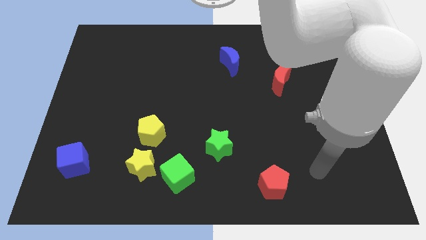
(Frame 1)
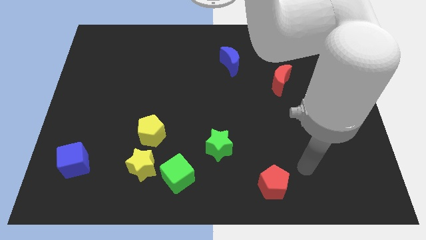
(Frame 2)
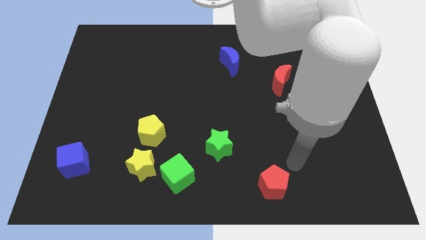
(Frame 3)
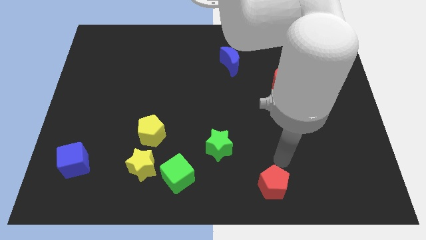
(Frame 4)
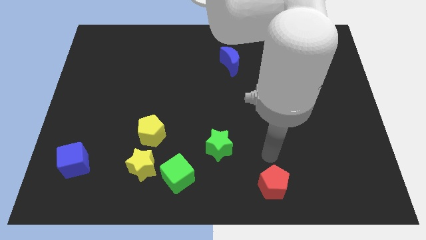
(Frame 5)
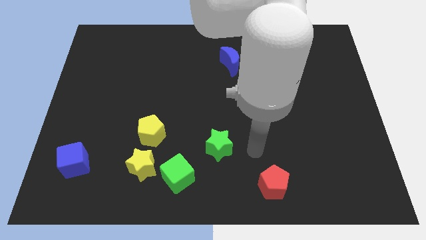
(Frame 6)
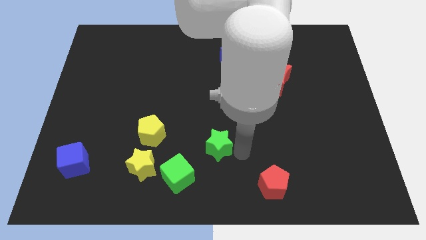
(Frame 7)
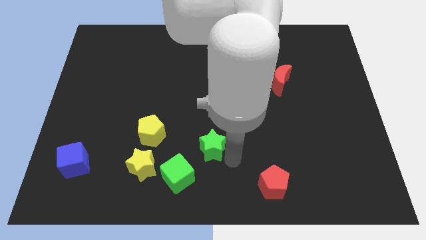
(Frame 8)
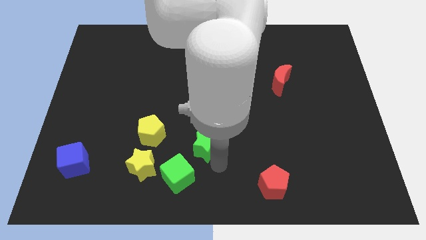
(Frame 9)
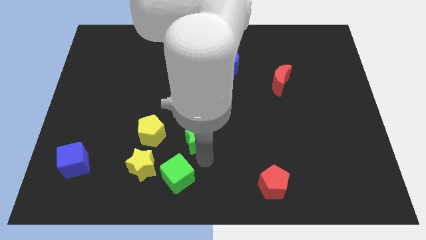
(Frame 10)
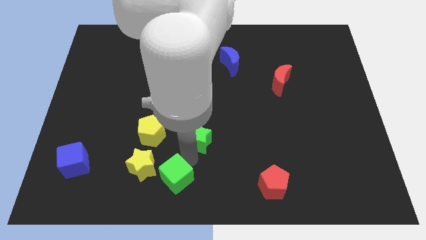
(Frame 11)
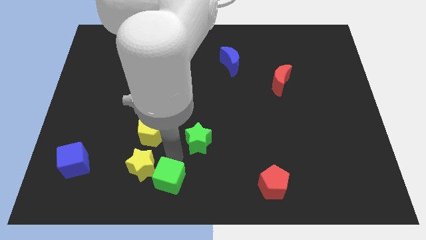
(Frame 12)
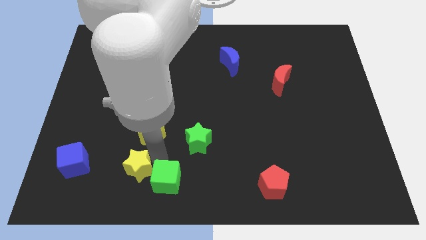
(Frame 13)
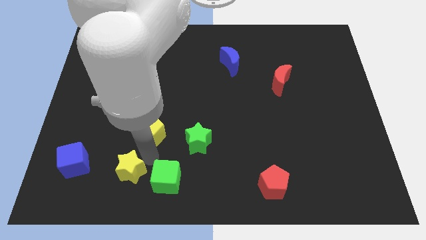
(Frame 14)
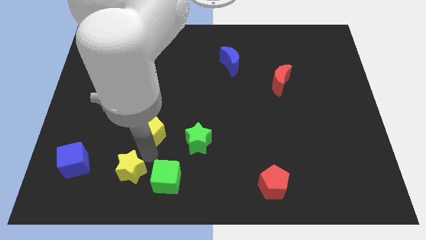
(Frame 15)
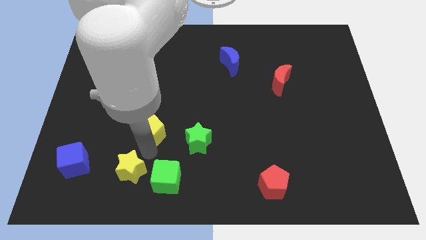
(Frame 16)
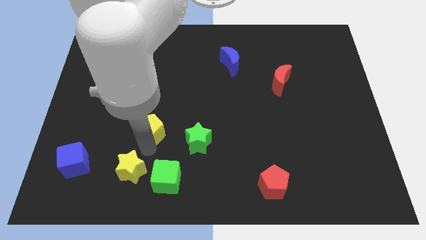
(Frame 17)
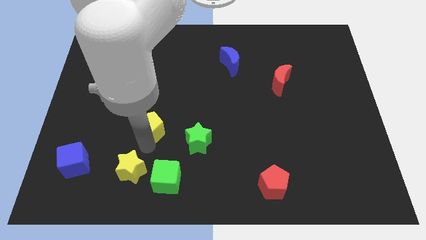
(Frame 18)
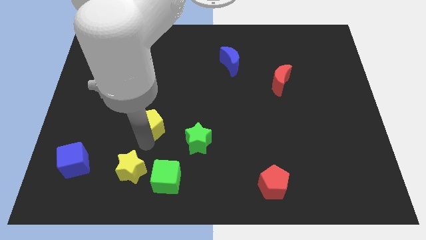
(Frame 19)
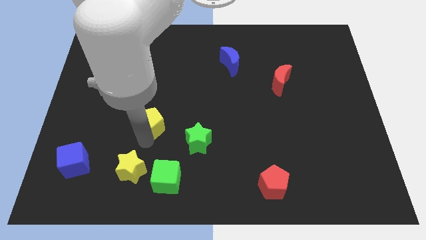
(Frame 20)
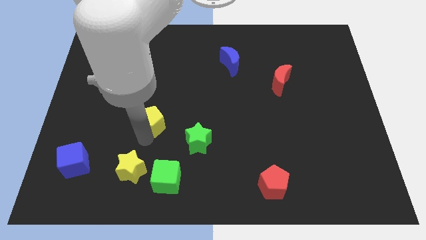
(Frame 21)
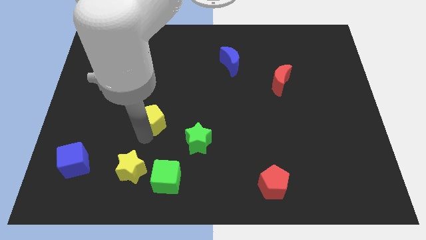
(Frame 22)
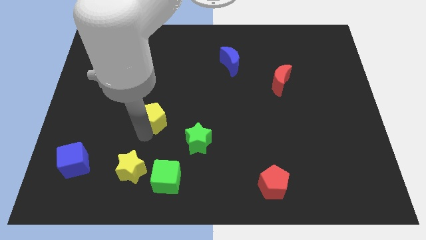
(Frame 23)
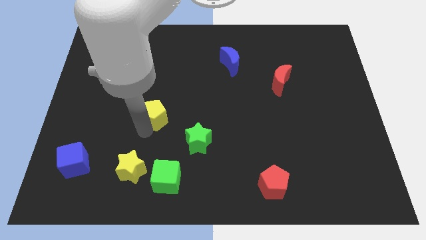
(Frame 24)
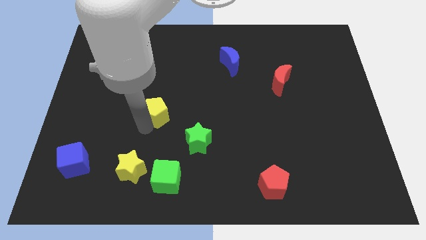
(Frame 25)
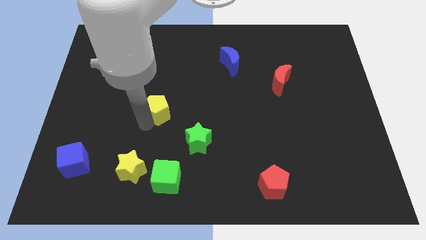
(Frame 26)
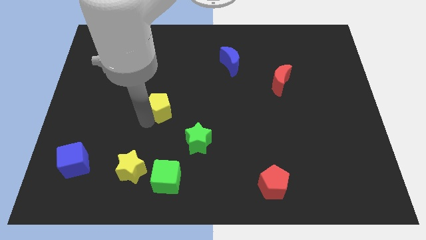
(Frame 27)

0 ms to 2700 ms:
push the yellow pentagon up a little bit

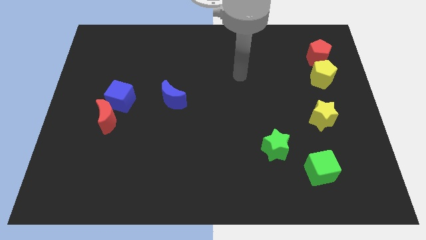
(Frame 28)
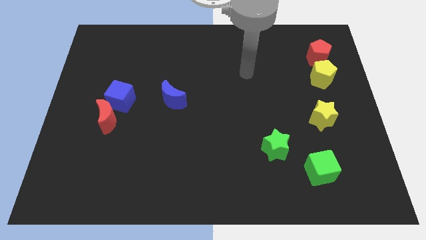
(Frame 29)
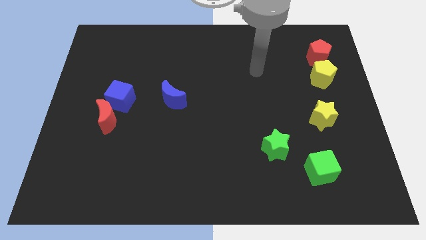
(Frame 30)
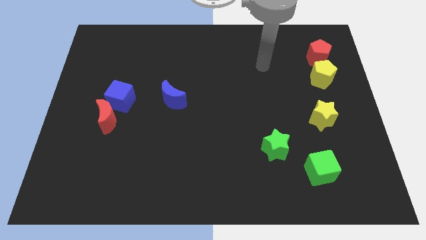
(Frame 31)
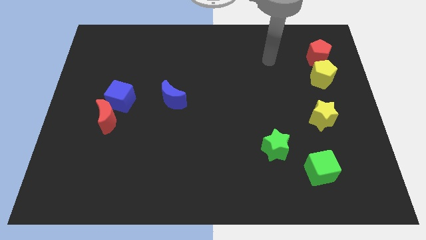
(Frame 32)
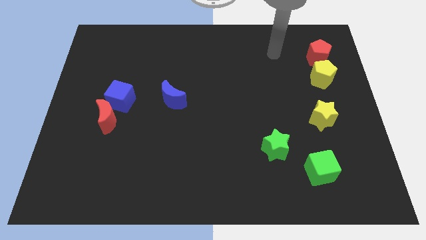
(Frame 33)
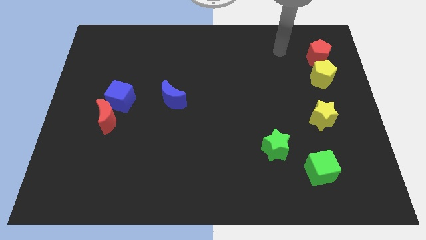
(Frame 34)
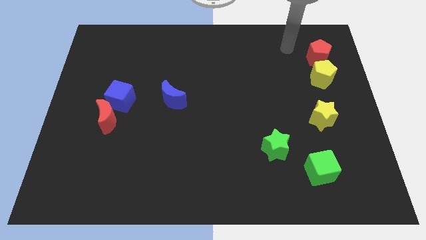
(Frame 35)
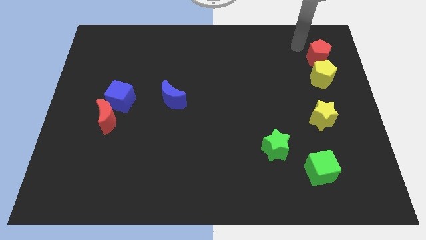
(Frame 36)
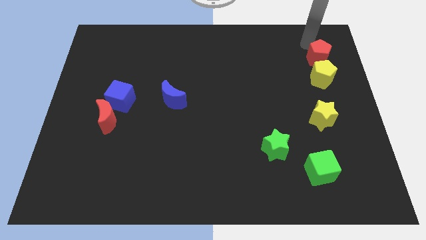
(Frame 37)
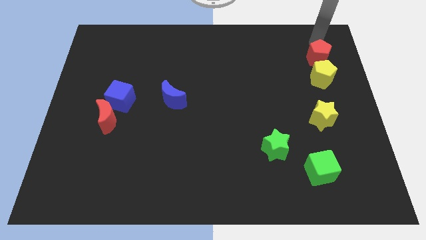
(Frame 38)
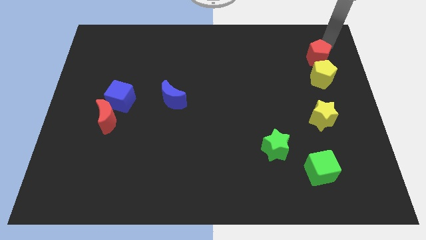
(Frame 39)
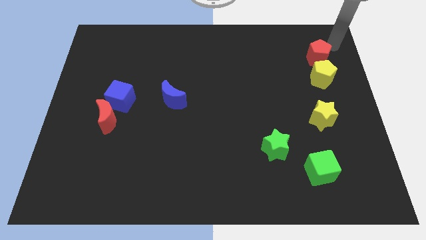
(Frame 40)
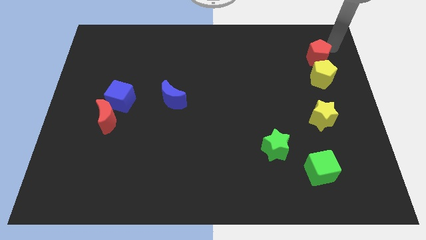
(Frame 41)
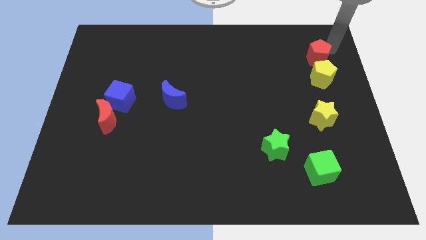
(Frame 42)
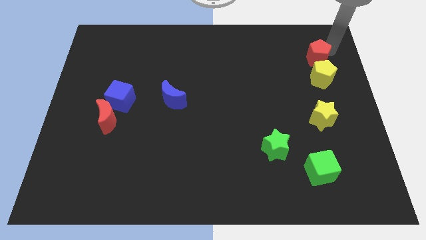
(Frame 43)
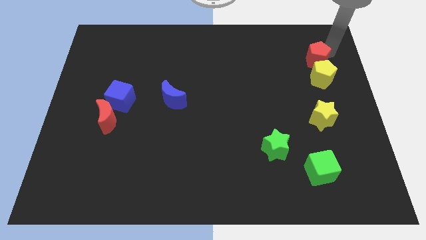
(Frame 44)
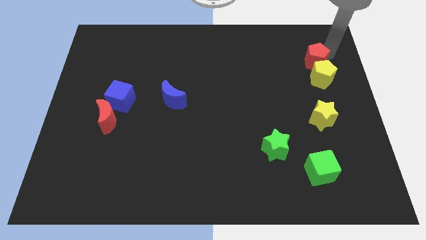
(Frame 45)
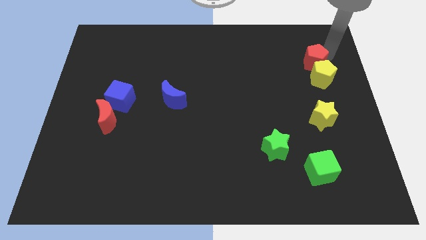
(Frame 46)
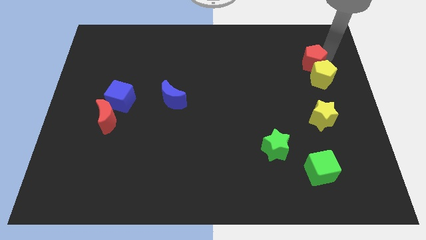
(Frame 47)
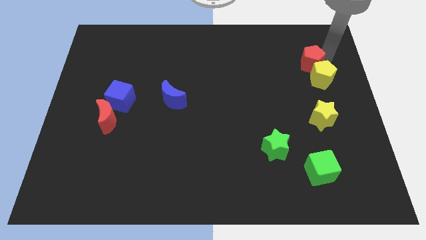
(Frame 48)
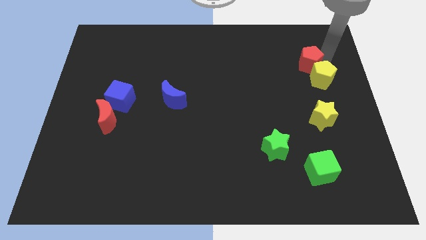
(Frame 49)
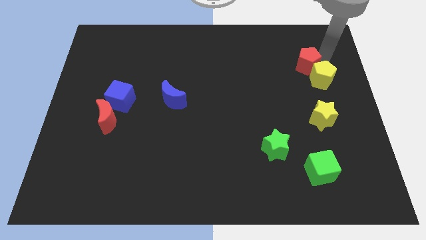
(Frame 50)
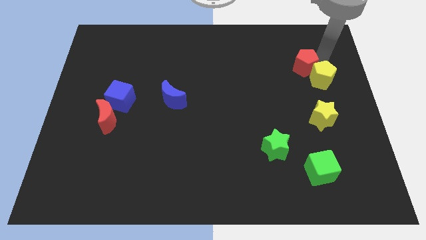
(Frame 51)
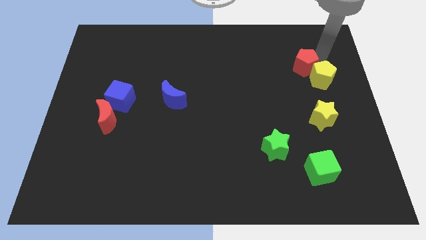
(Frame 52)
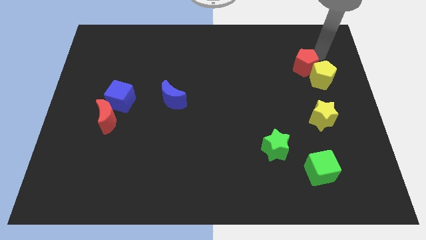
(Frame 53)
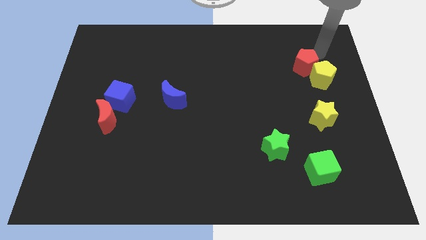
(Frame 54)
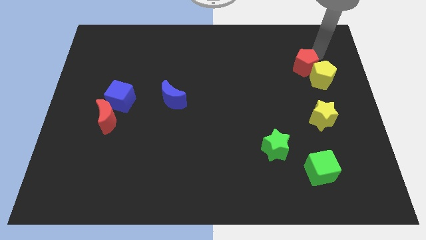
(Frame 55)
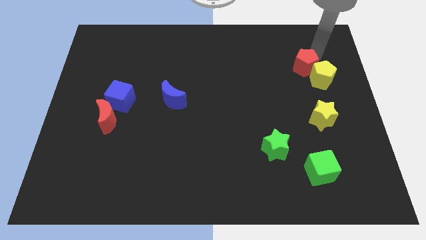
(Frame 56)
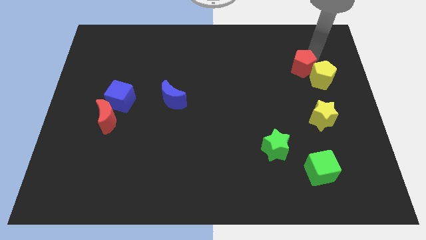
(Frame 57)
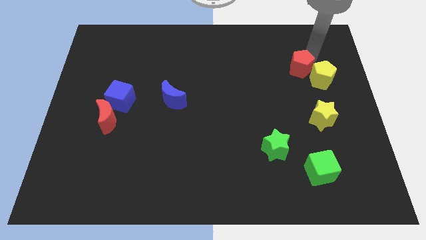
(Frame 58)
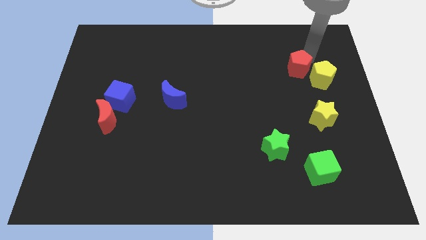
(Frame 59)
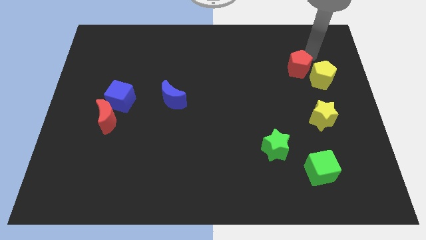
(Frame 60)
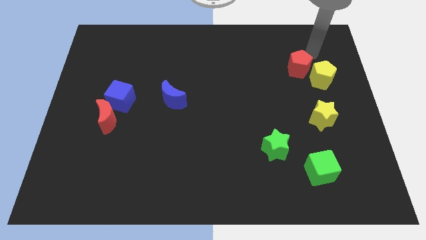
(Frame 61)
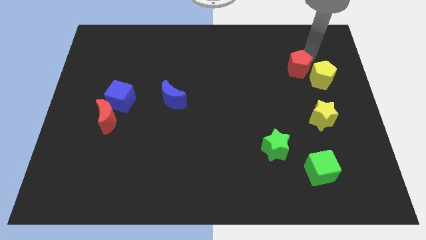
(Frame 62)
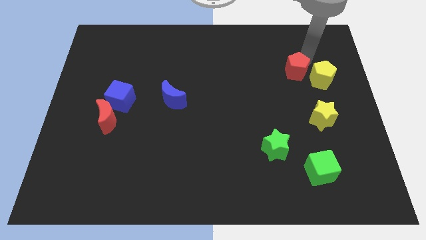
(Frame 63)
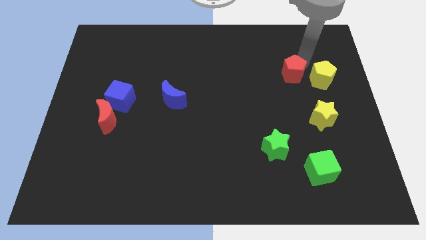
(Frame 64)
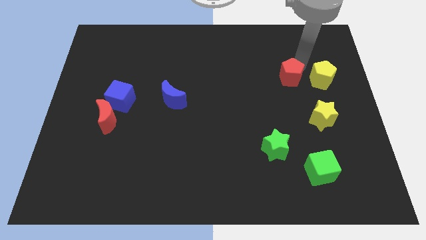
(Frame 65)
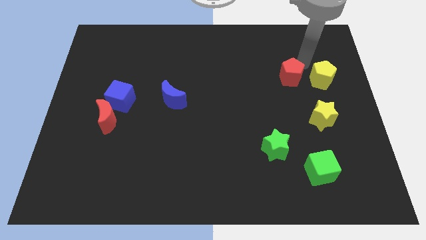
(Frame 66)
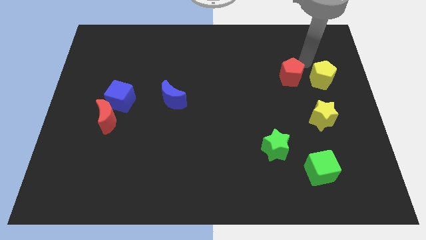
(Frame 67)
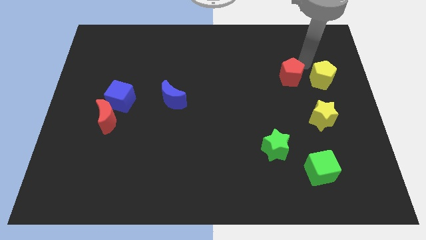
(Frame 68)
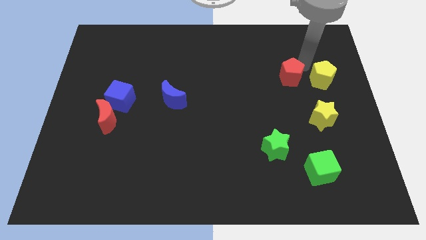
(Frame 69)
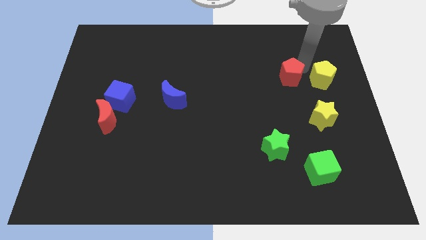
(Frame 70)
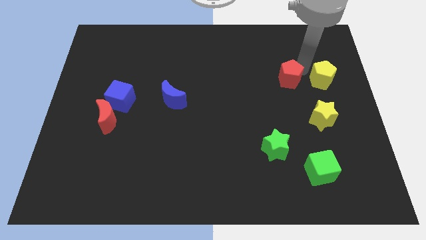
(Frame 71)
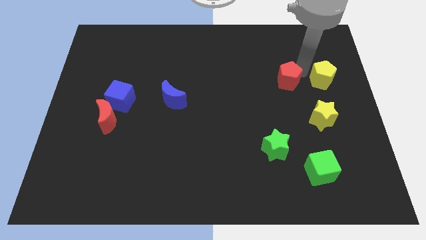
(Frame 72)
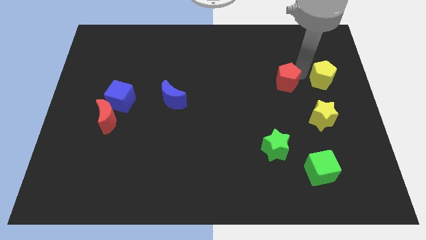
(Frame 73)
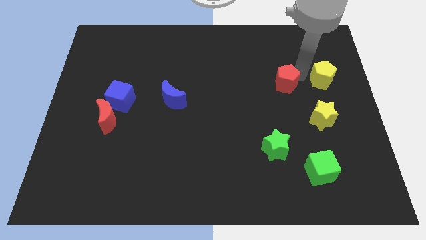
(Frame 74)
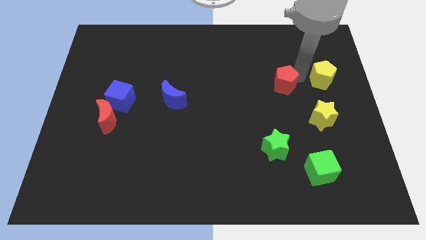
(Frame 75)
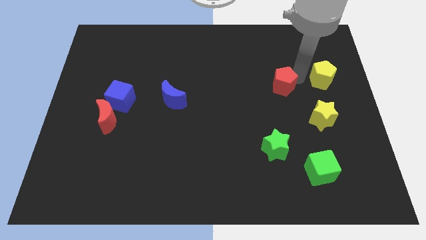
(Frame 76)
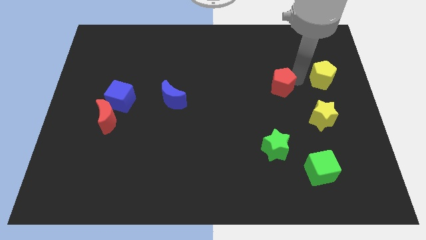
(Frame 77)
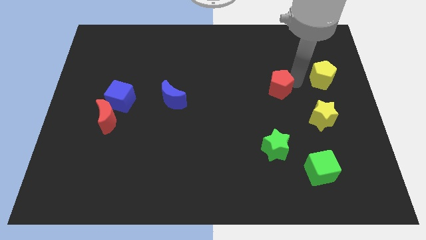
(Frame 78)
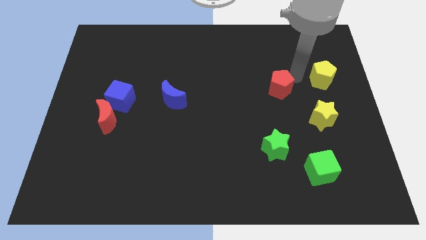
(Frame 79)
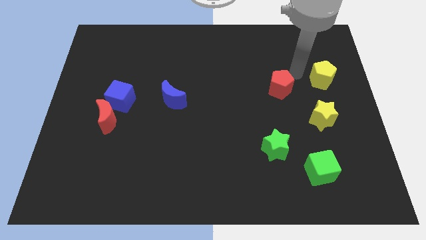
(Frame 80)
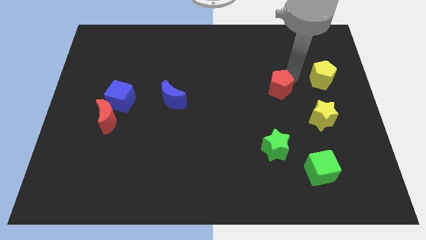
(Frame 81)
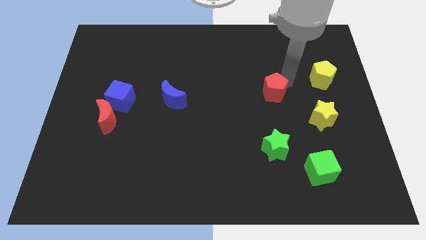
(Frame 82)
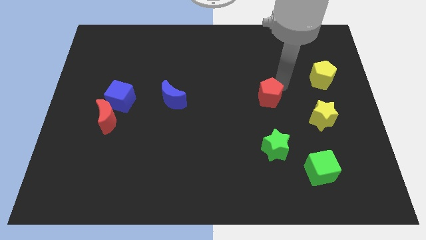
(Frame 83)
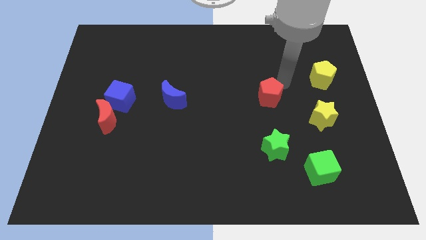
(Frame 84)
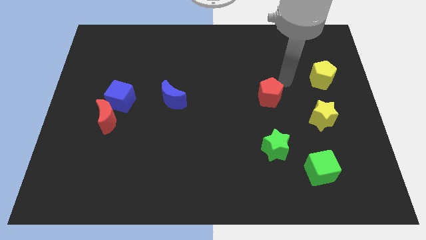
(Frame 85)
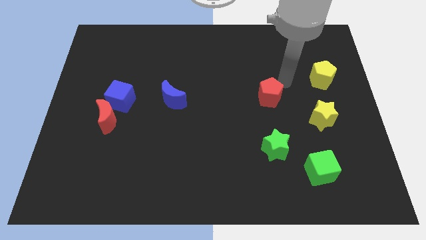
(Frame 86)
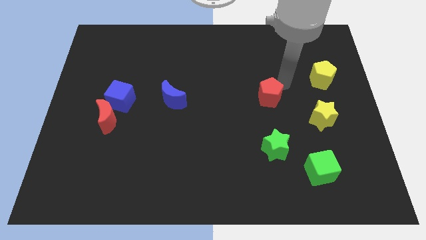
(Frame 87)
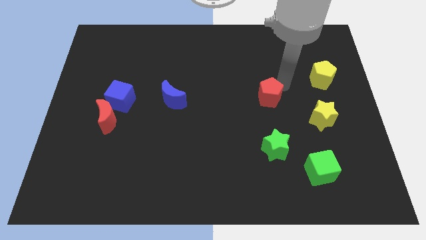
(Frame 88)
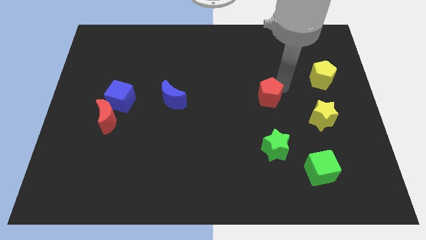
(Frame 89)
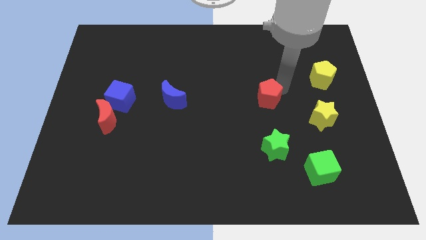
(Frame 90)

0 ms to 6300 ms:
move the red pentagon diagonally down and to the left
